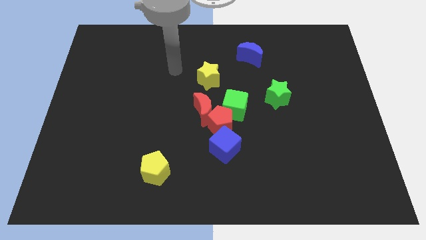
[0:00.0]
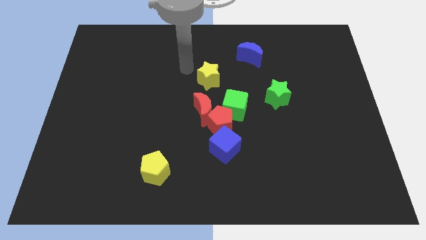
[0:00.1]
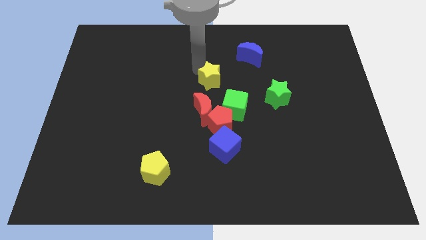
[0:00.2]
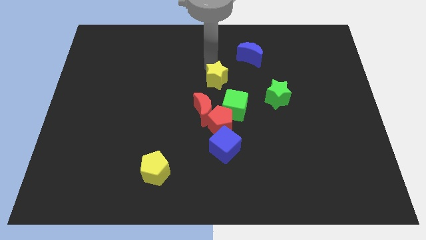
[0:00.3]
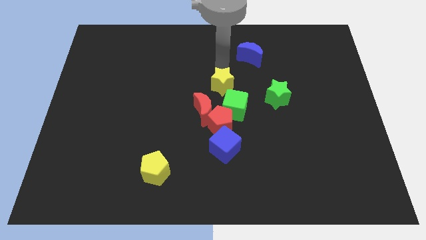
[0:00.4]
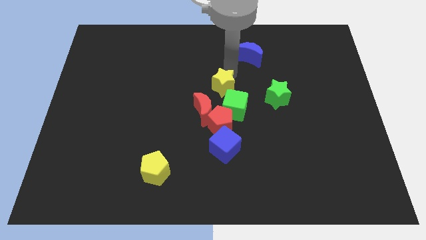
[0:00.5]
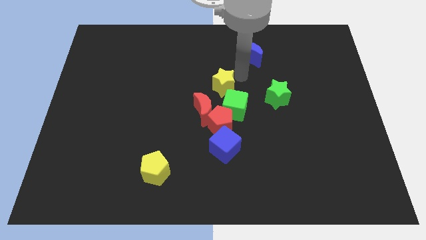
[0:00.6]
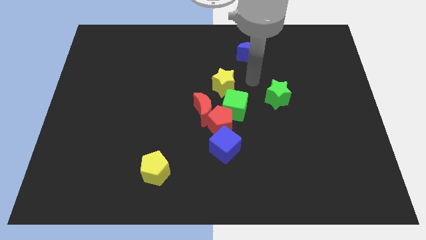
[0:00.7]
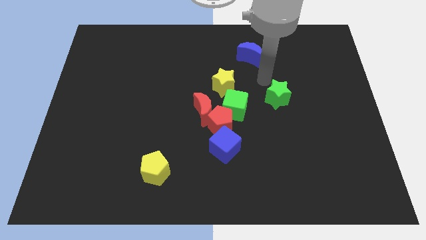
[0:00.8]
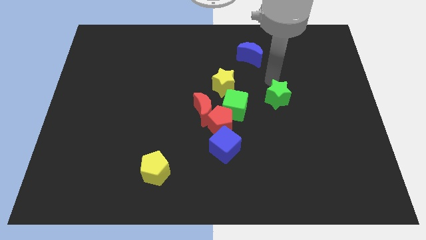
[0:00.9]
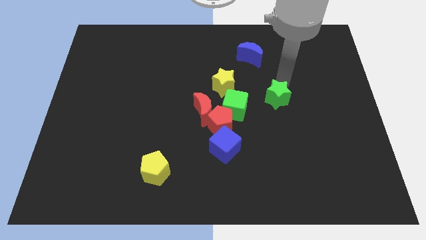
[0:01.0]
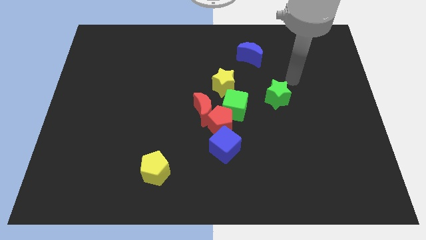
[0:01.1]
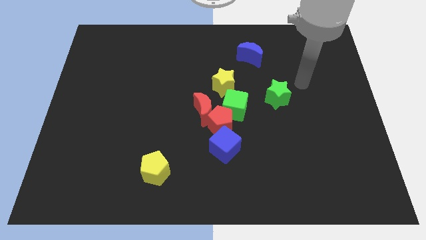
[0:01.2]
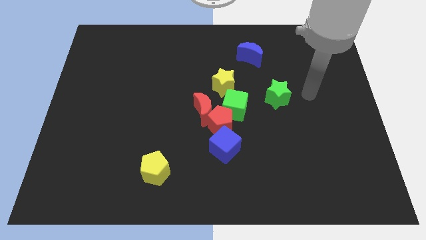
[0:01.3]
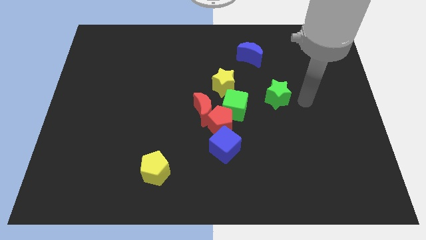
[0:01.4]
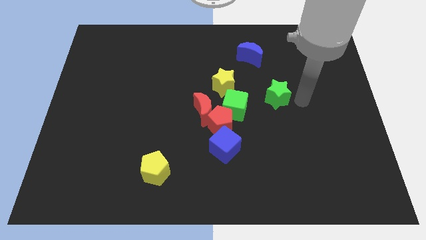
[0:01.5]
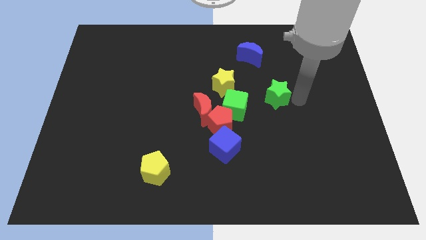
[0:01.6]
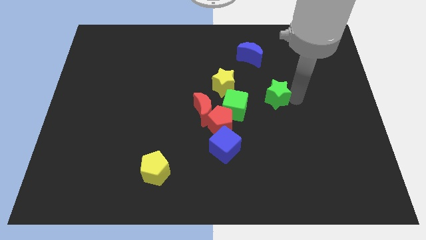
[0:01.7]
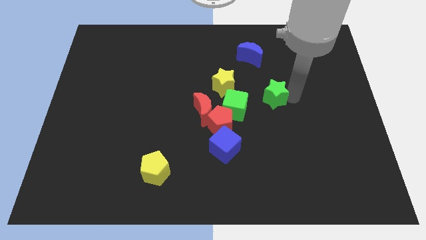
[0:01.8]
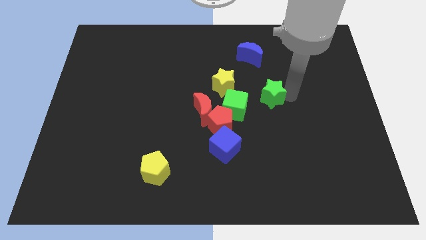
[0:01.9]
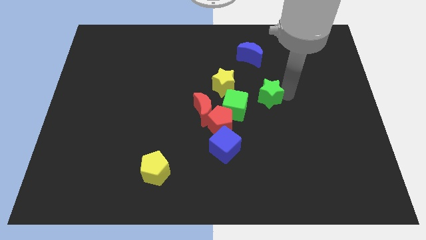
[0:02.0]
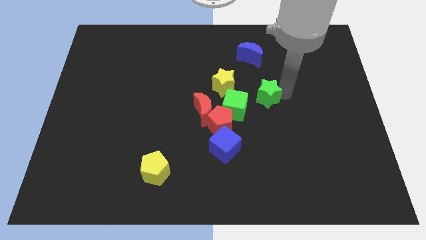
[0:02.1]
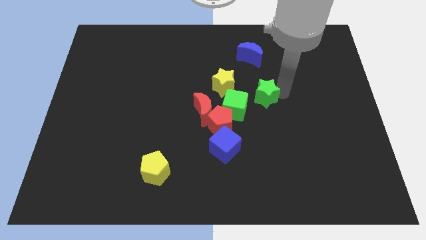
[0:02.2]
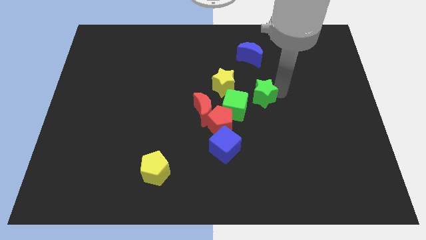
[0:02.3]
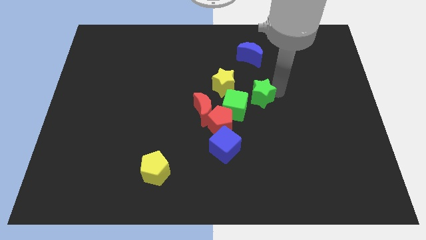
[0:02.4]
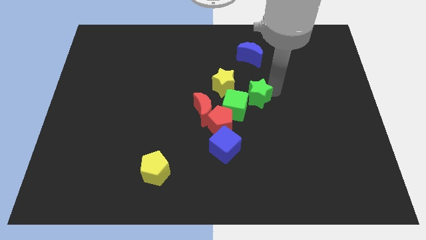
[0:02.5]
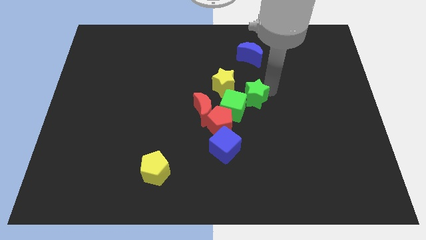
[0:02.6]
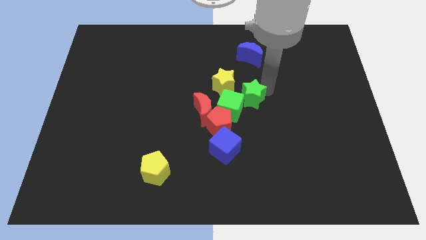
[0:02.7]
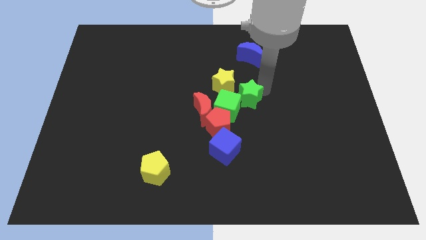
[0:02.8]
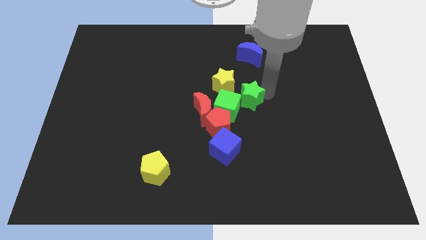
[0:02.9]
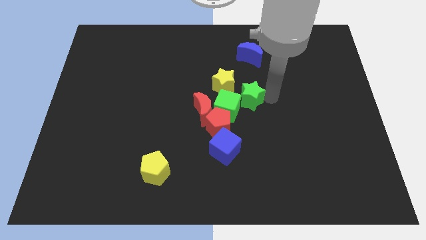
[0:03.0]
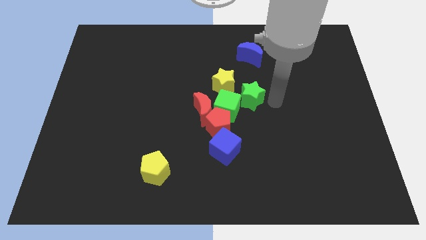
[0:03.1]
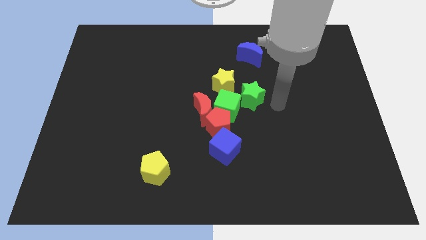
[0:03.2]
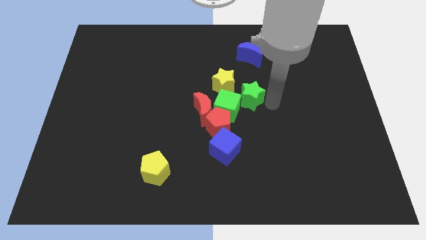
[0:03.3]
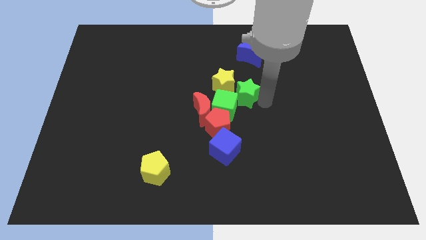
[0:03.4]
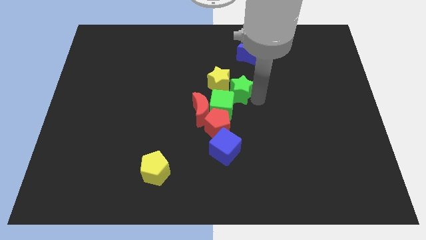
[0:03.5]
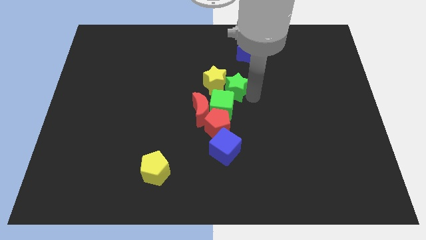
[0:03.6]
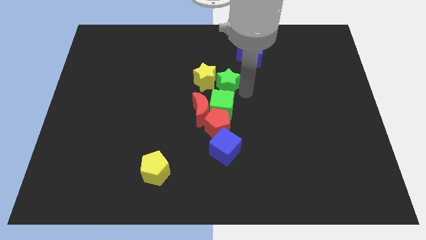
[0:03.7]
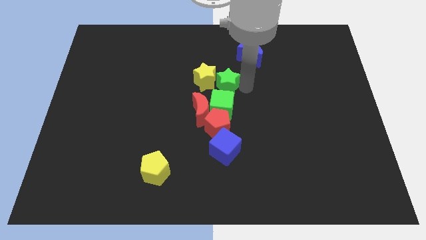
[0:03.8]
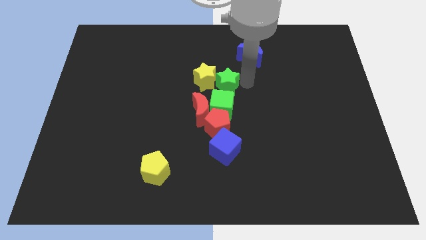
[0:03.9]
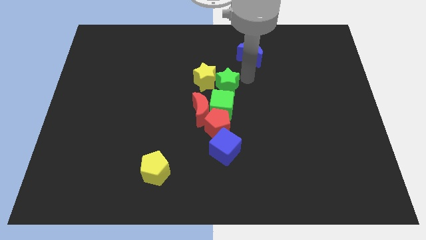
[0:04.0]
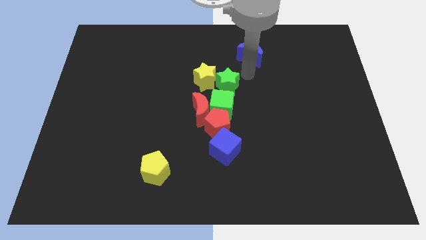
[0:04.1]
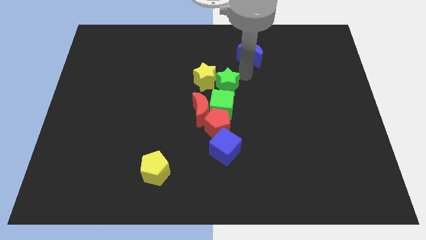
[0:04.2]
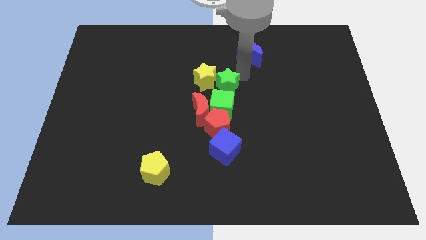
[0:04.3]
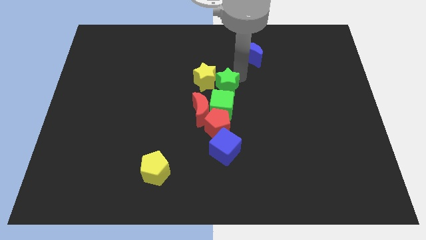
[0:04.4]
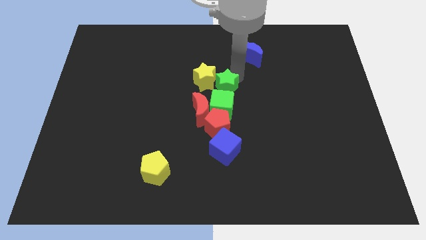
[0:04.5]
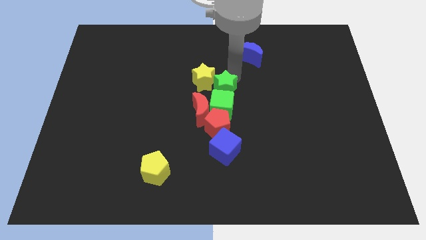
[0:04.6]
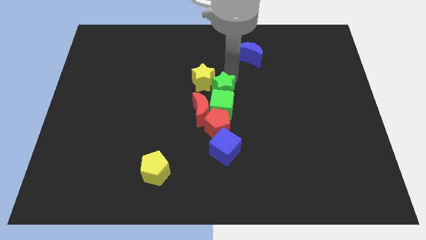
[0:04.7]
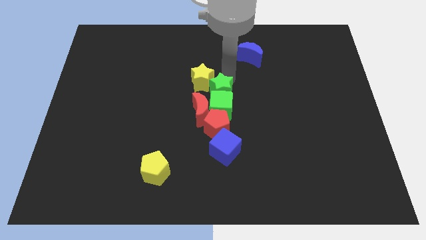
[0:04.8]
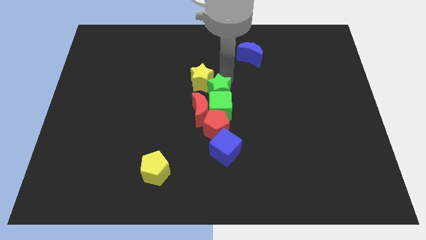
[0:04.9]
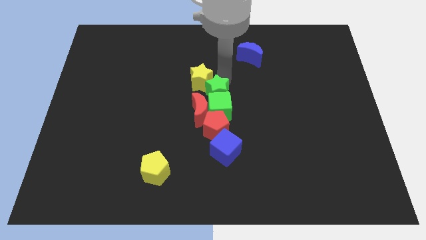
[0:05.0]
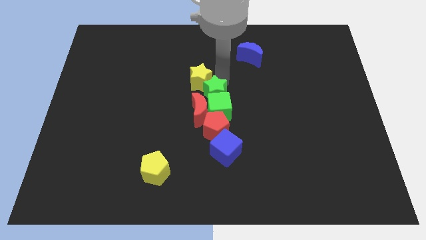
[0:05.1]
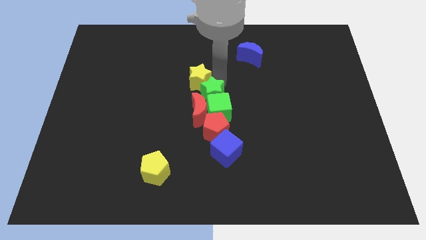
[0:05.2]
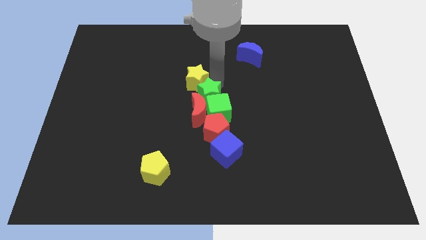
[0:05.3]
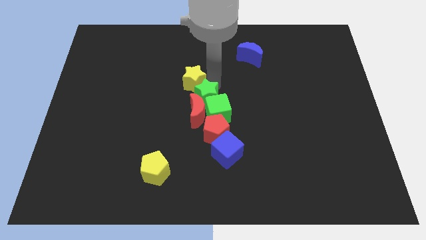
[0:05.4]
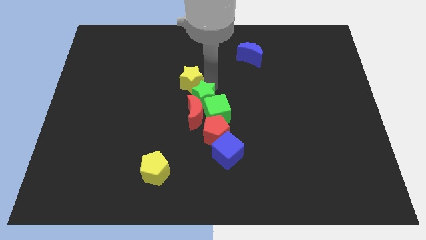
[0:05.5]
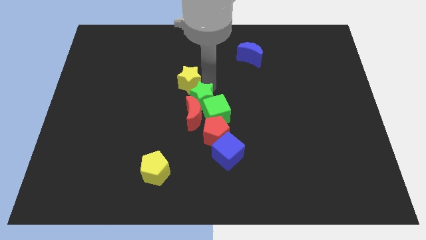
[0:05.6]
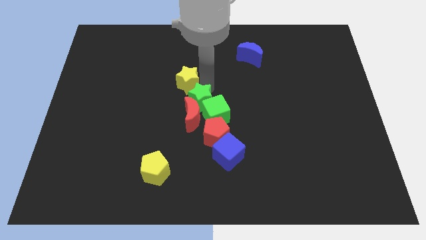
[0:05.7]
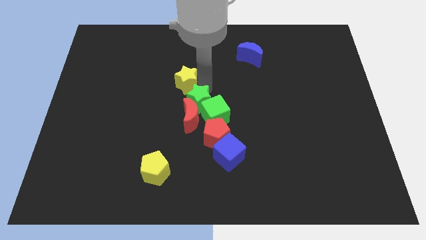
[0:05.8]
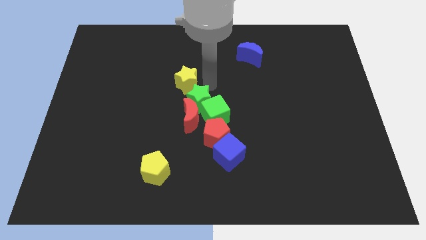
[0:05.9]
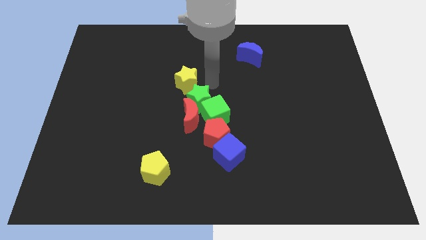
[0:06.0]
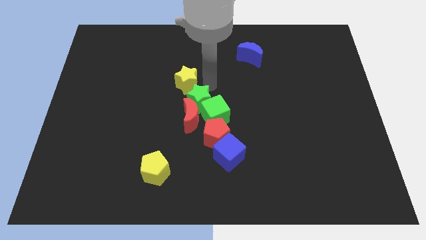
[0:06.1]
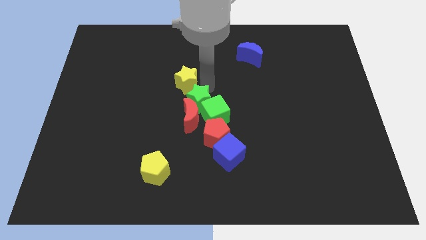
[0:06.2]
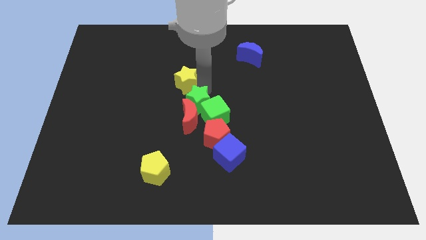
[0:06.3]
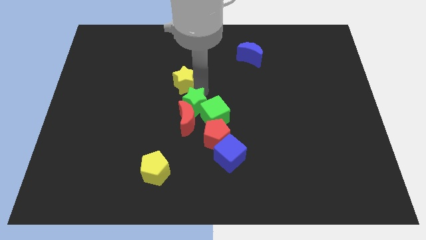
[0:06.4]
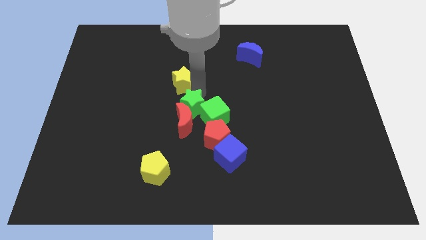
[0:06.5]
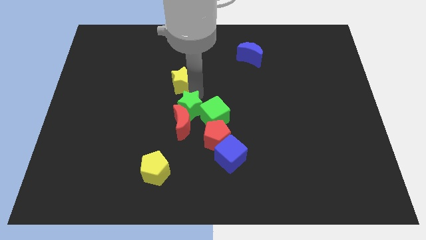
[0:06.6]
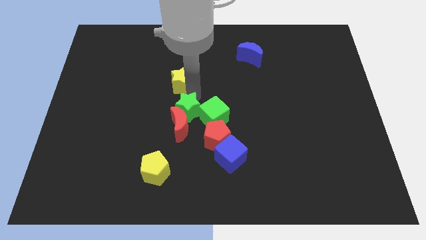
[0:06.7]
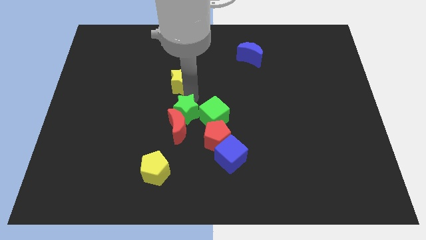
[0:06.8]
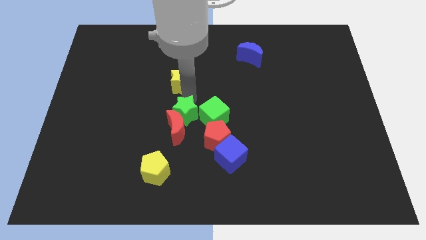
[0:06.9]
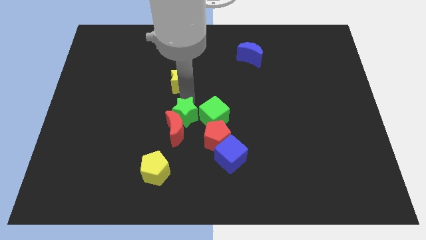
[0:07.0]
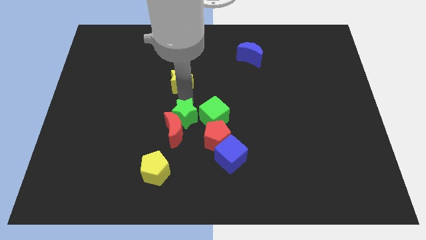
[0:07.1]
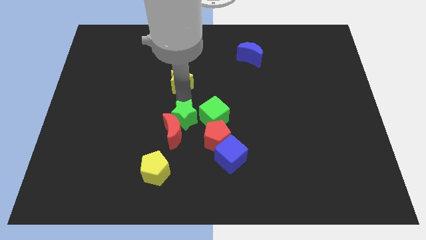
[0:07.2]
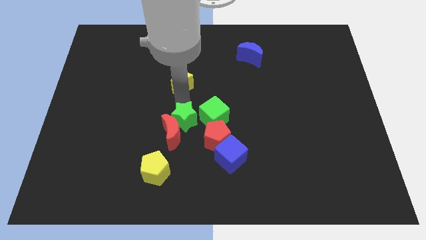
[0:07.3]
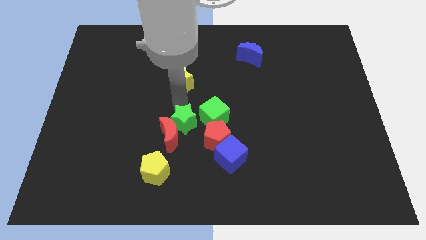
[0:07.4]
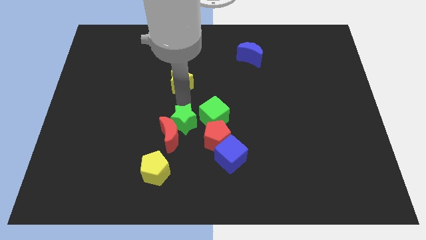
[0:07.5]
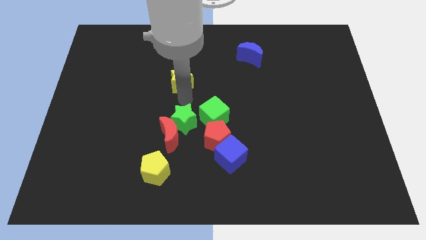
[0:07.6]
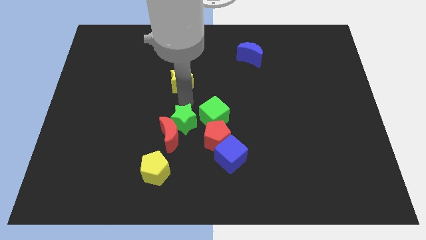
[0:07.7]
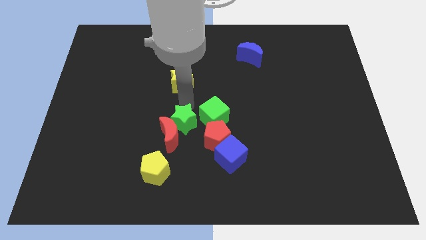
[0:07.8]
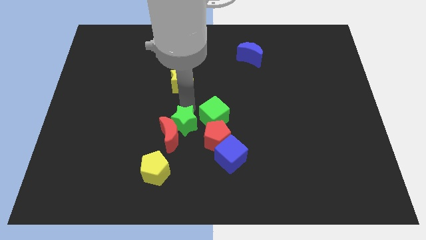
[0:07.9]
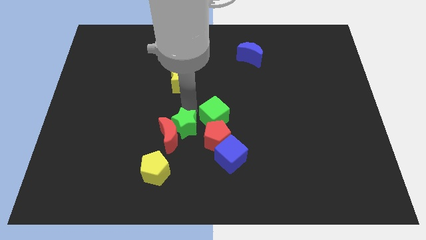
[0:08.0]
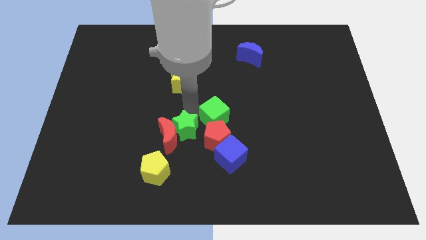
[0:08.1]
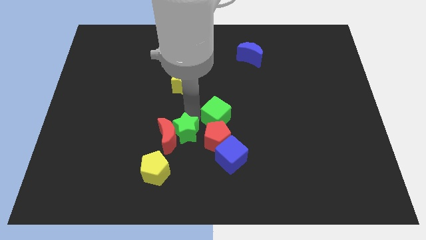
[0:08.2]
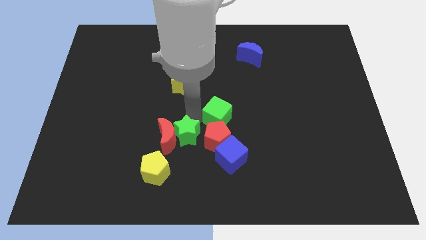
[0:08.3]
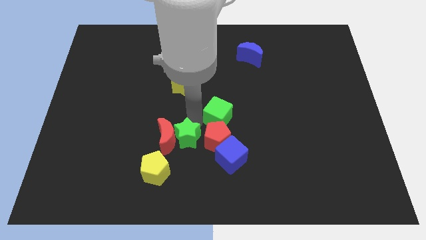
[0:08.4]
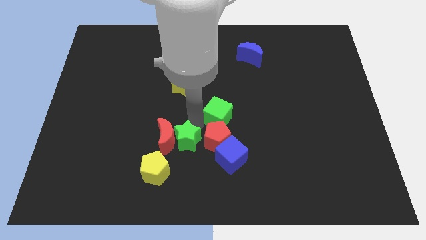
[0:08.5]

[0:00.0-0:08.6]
push the green star to the left of the blue cube
